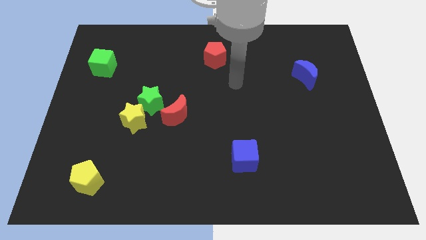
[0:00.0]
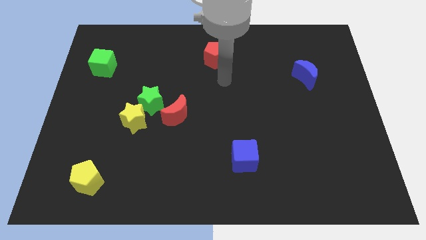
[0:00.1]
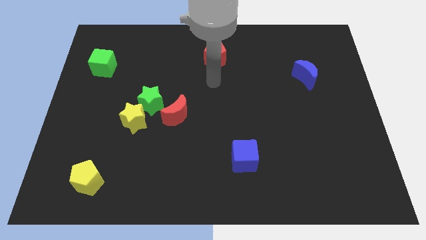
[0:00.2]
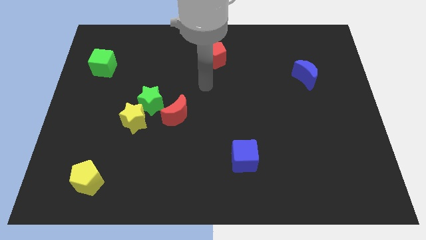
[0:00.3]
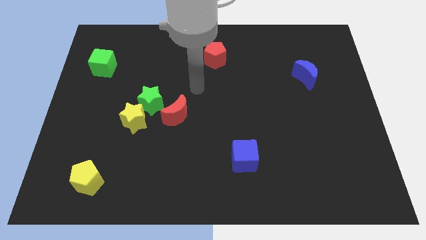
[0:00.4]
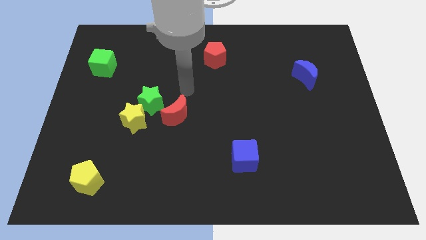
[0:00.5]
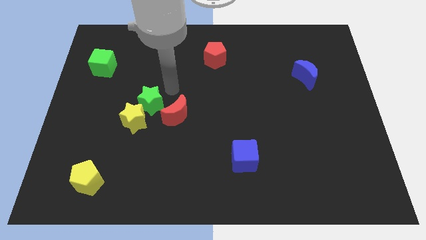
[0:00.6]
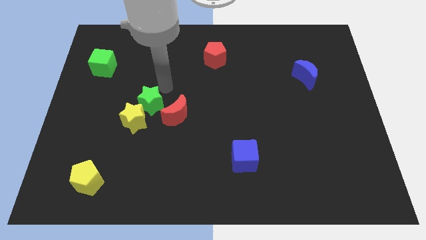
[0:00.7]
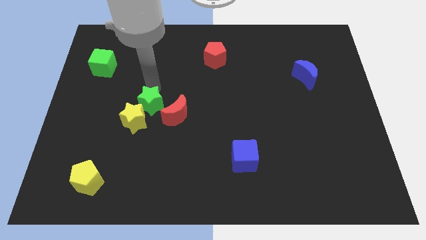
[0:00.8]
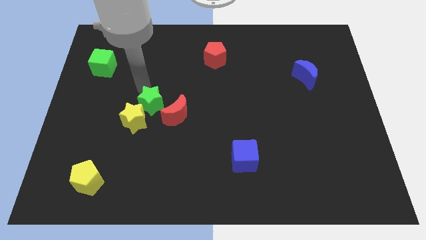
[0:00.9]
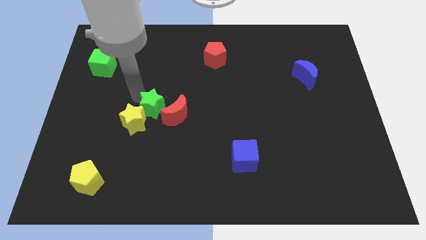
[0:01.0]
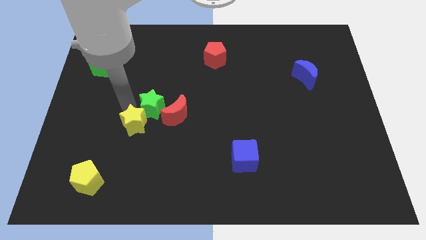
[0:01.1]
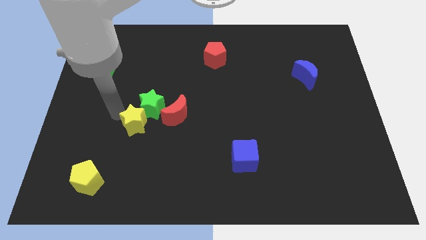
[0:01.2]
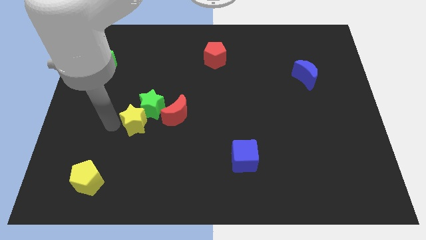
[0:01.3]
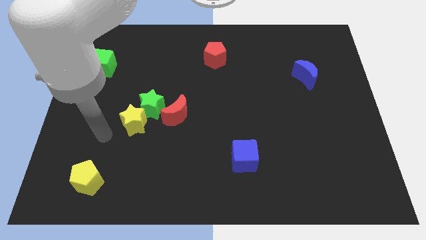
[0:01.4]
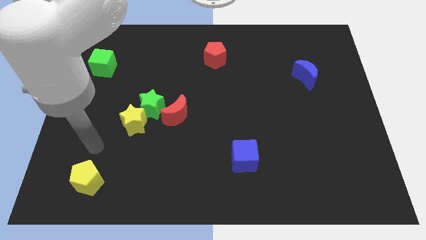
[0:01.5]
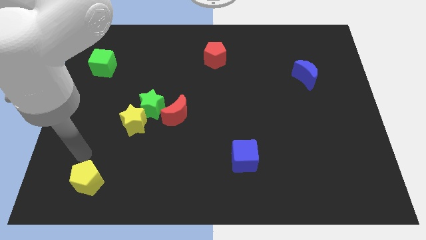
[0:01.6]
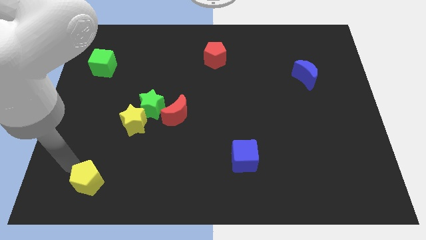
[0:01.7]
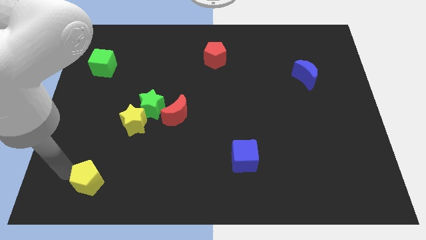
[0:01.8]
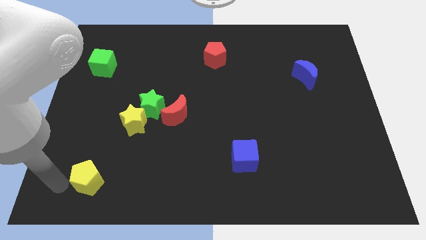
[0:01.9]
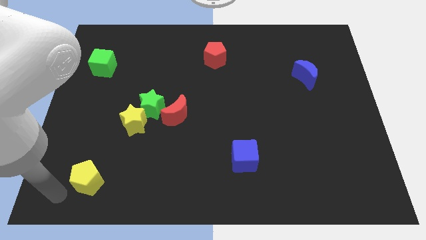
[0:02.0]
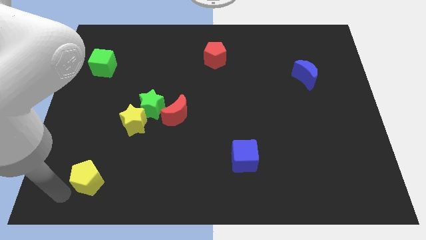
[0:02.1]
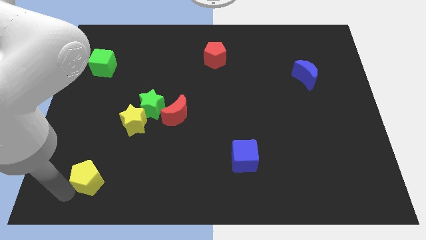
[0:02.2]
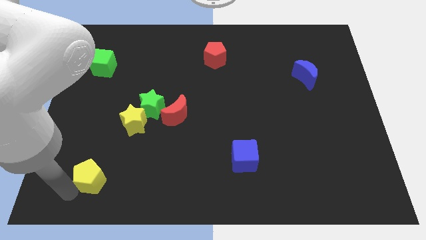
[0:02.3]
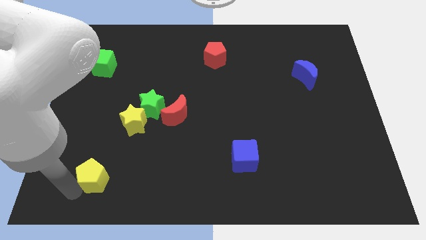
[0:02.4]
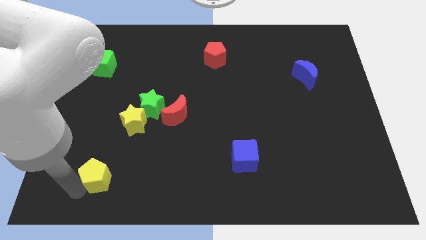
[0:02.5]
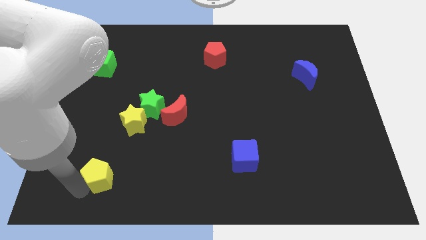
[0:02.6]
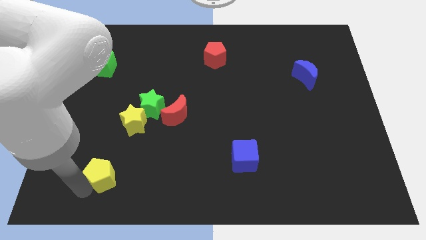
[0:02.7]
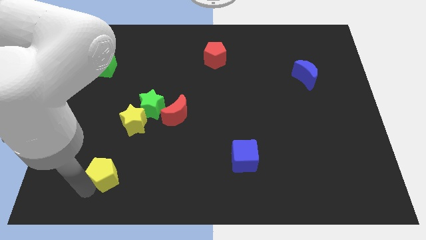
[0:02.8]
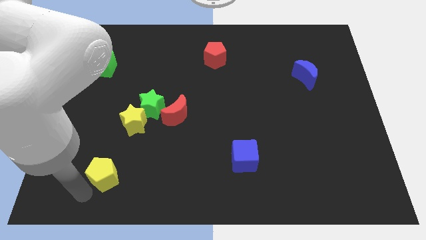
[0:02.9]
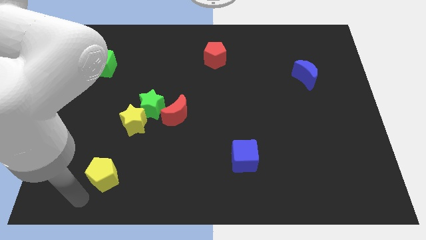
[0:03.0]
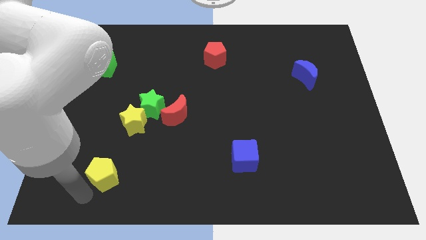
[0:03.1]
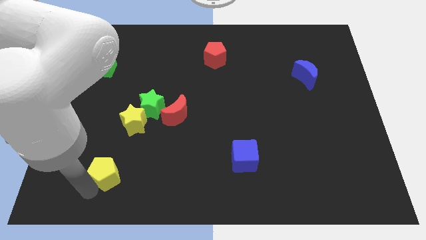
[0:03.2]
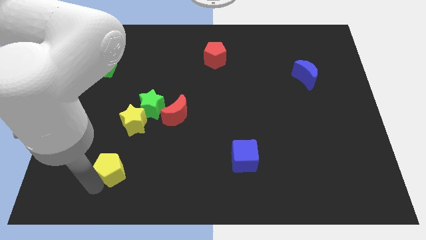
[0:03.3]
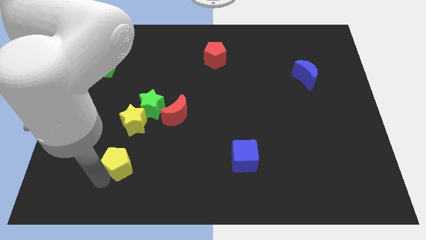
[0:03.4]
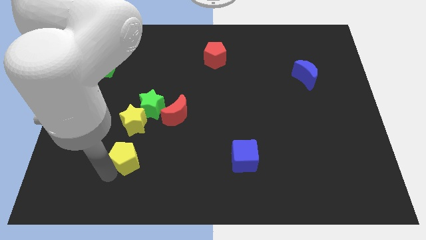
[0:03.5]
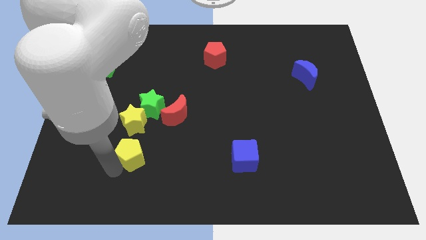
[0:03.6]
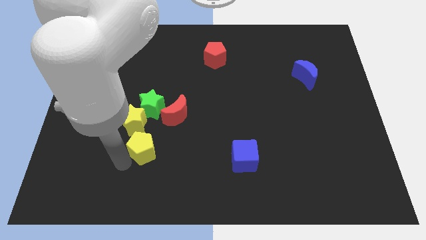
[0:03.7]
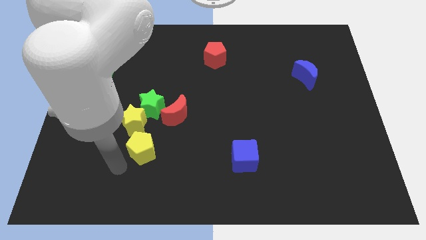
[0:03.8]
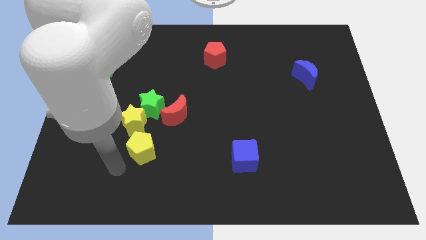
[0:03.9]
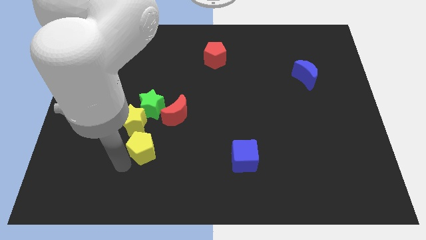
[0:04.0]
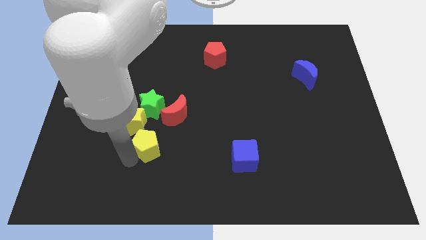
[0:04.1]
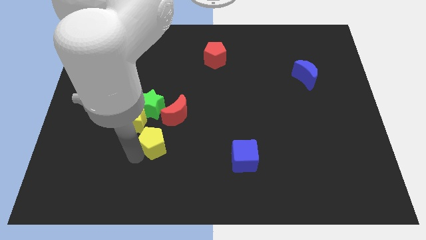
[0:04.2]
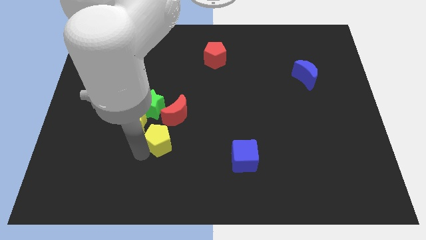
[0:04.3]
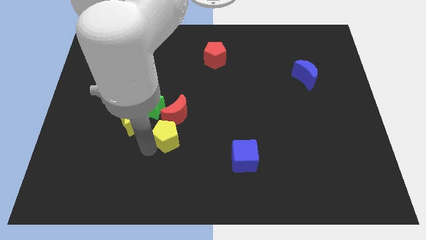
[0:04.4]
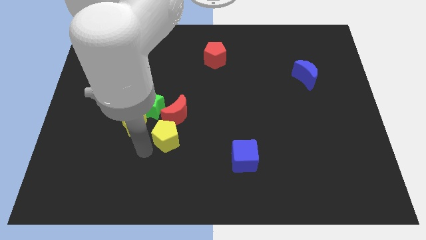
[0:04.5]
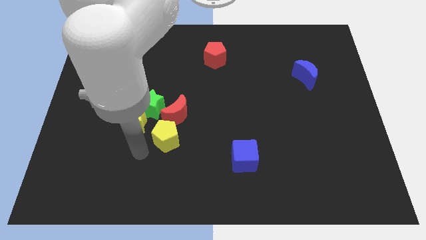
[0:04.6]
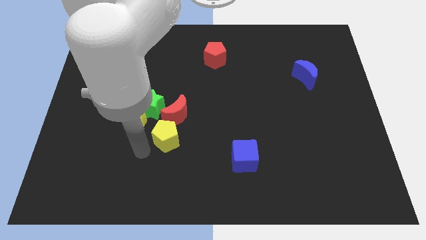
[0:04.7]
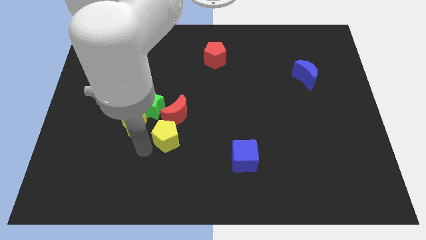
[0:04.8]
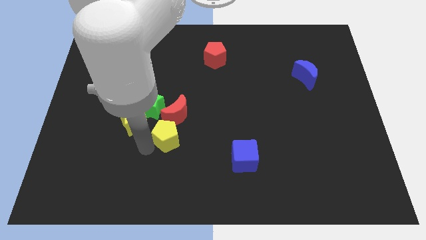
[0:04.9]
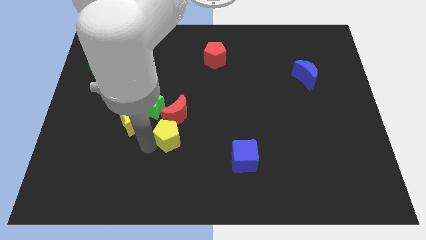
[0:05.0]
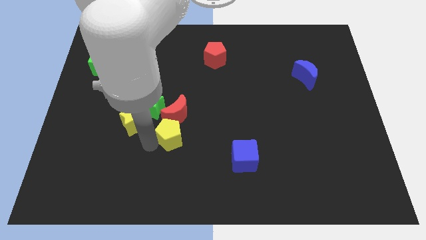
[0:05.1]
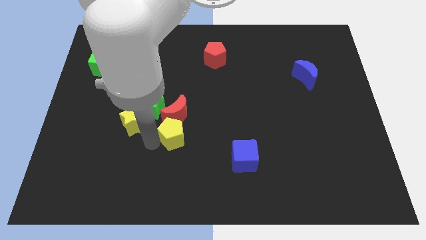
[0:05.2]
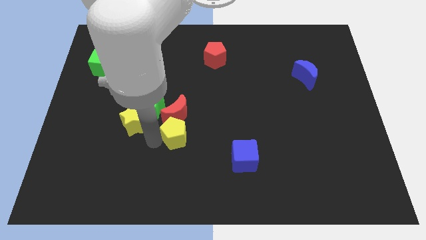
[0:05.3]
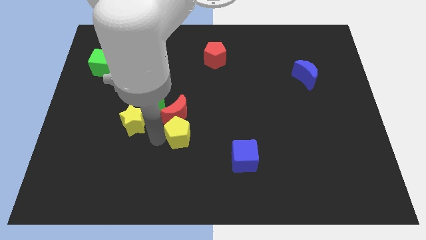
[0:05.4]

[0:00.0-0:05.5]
slide the yellow pentagon to the center of the board
